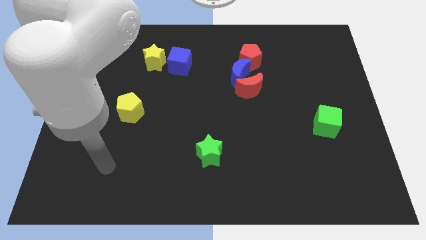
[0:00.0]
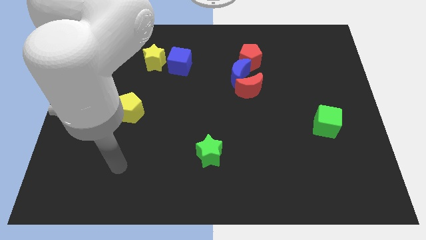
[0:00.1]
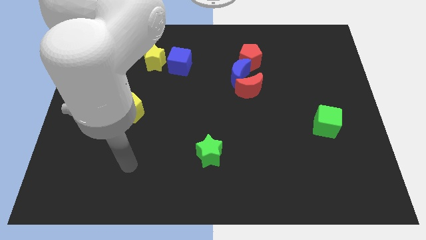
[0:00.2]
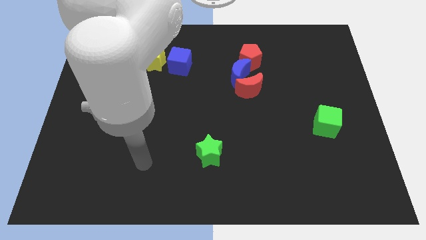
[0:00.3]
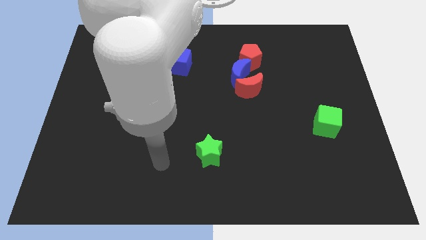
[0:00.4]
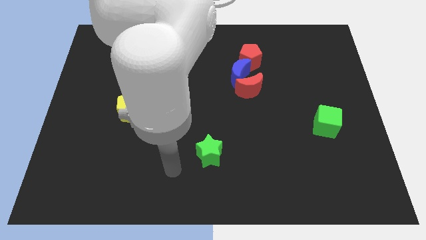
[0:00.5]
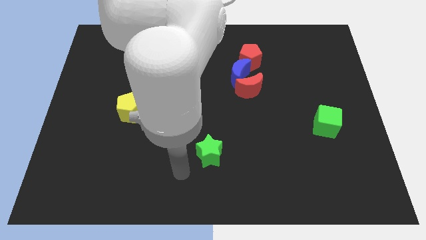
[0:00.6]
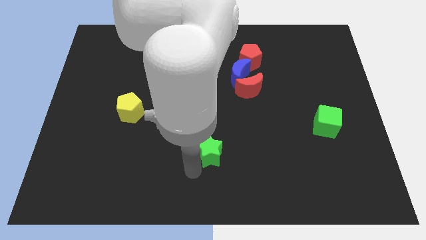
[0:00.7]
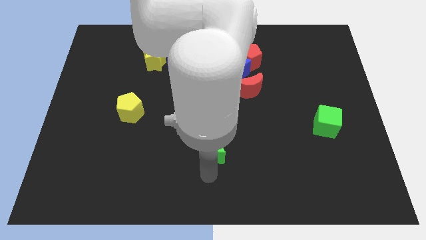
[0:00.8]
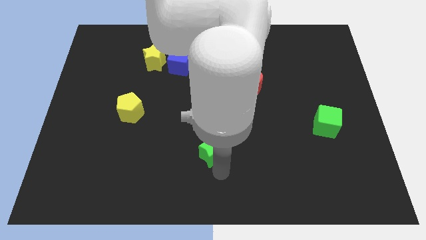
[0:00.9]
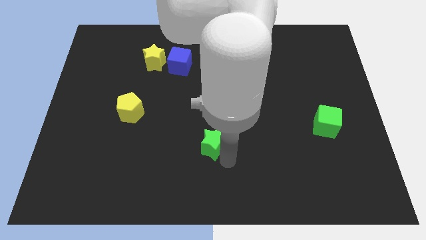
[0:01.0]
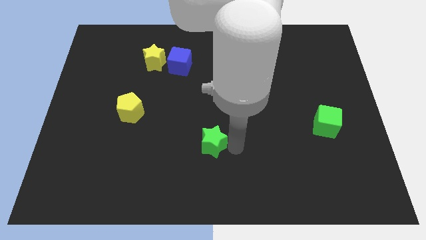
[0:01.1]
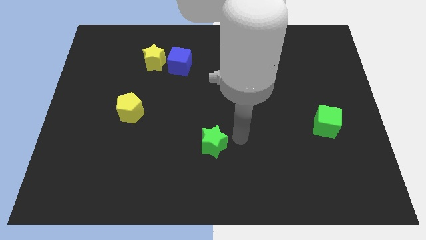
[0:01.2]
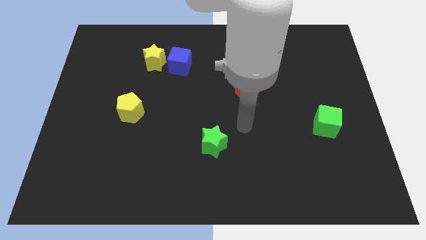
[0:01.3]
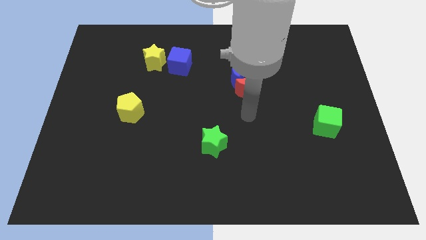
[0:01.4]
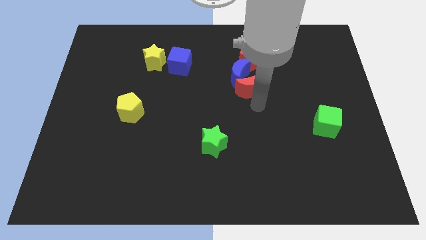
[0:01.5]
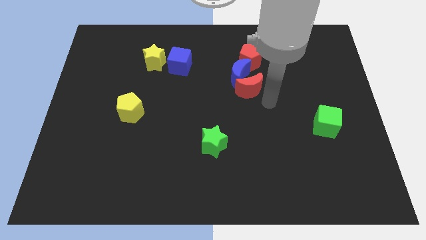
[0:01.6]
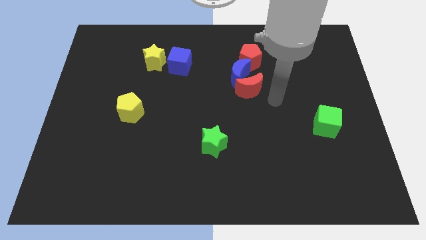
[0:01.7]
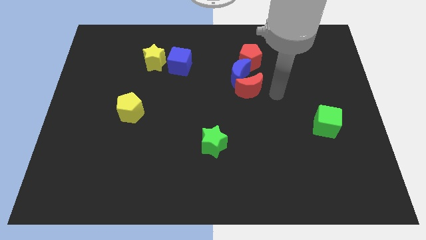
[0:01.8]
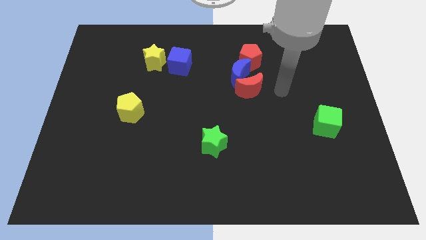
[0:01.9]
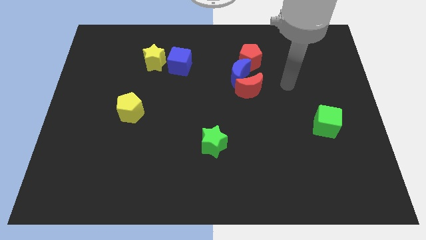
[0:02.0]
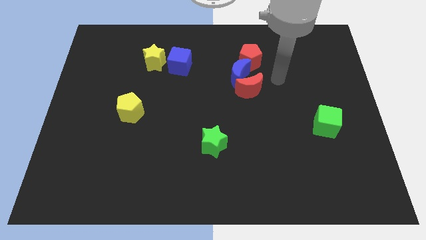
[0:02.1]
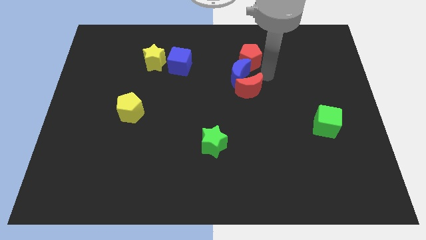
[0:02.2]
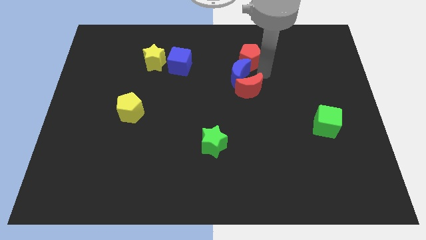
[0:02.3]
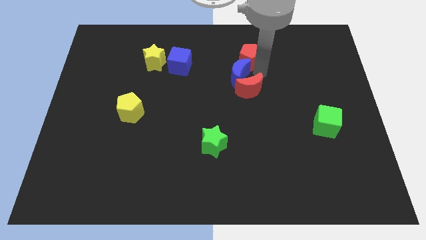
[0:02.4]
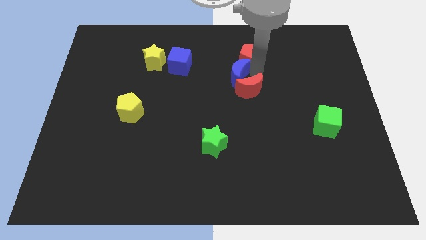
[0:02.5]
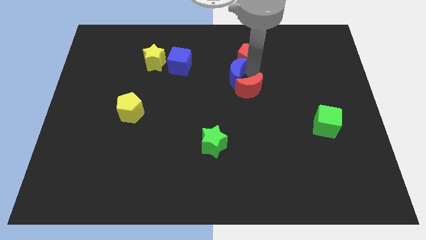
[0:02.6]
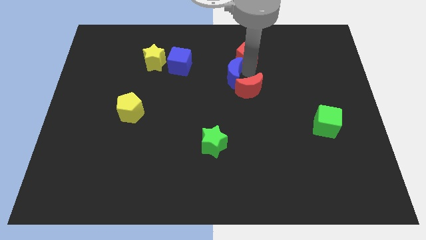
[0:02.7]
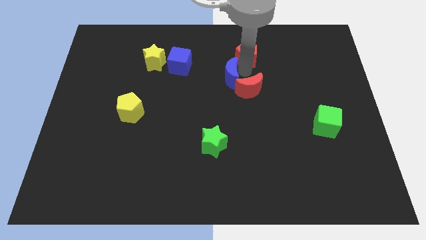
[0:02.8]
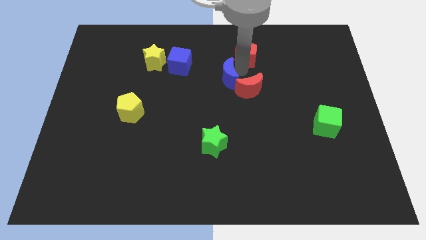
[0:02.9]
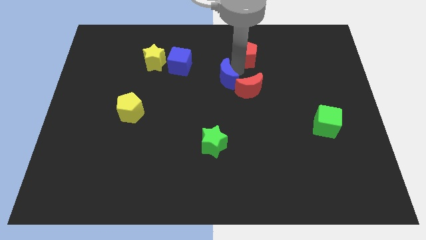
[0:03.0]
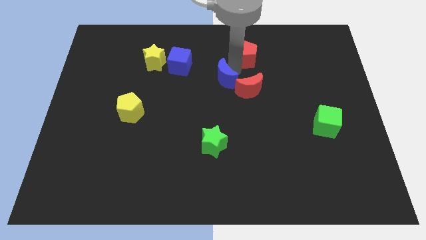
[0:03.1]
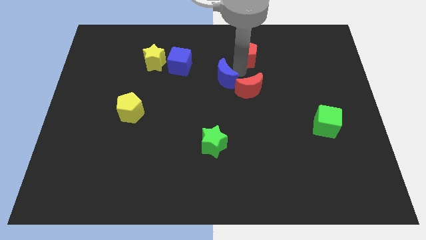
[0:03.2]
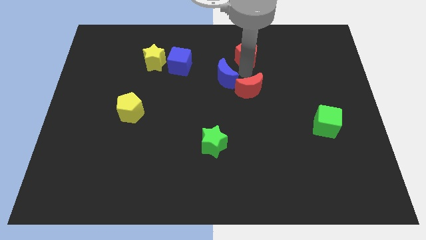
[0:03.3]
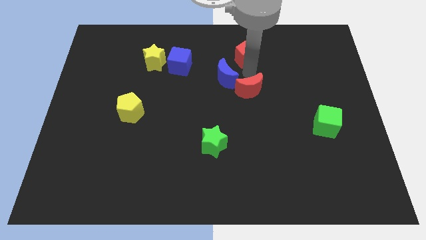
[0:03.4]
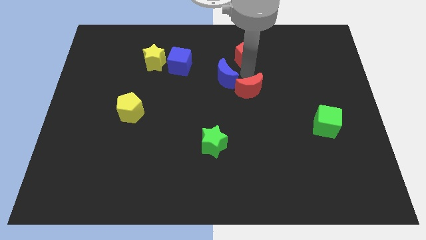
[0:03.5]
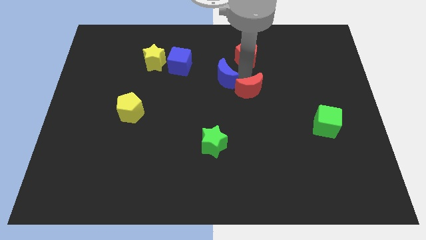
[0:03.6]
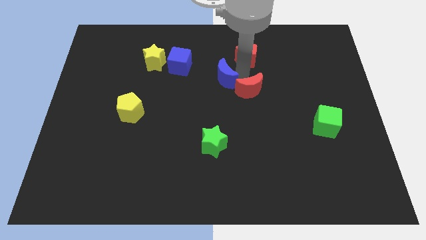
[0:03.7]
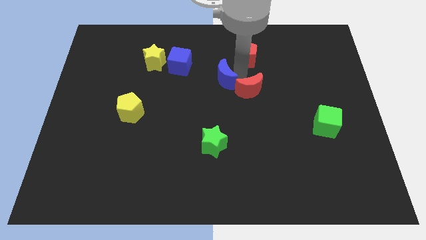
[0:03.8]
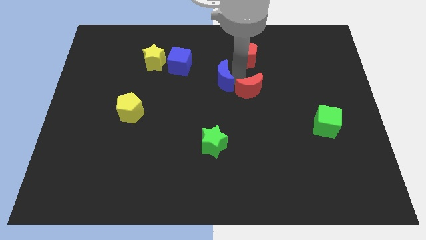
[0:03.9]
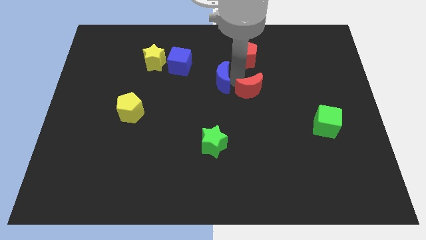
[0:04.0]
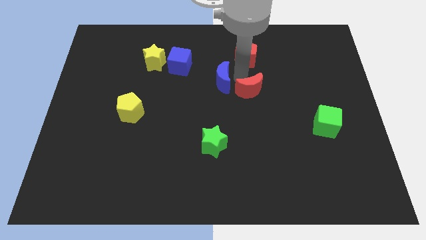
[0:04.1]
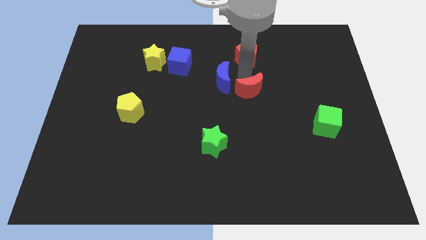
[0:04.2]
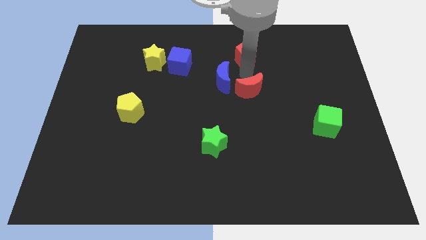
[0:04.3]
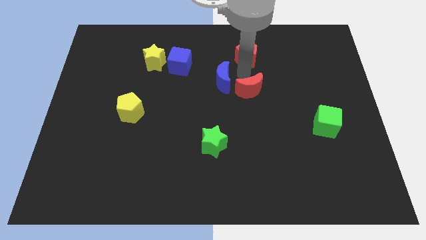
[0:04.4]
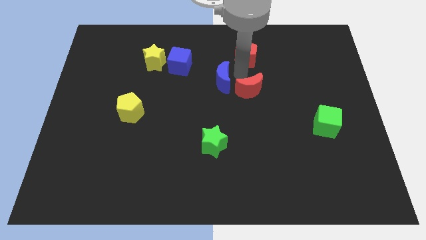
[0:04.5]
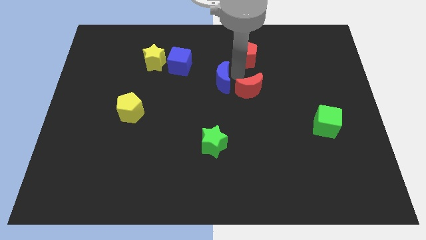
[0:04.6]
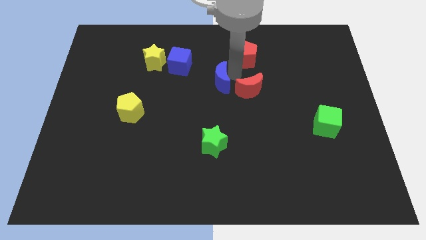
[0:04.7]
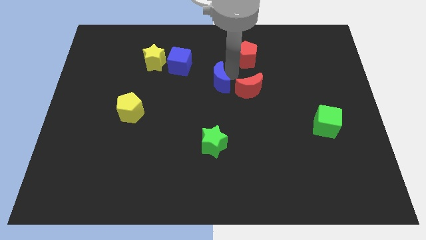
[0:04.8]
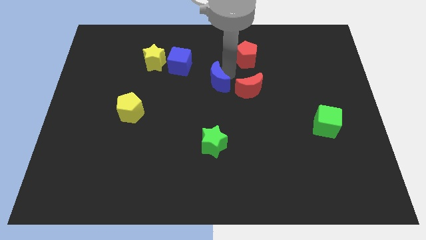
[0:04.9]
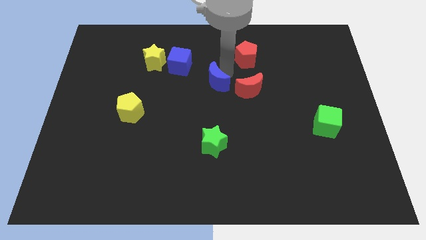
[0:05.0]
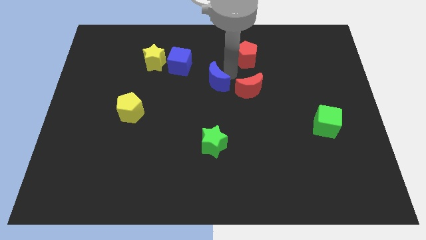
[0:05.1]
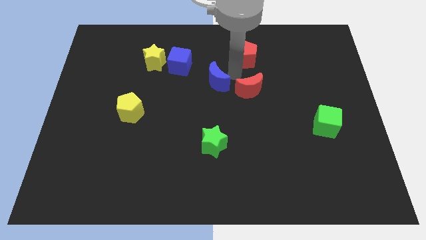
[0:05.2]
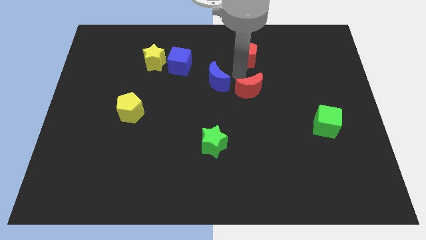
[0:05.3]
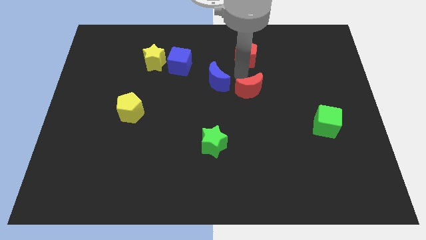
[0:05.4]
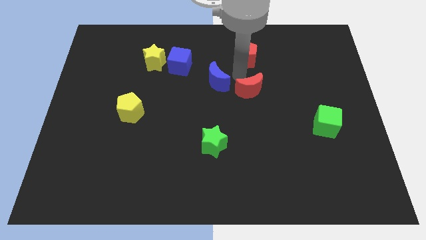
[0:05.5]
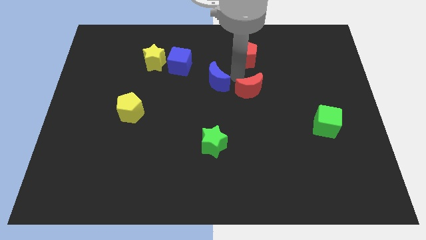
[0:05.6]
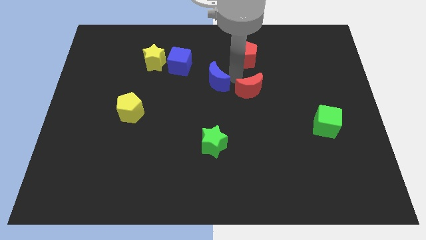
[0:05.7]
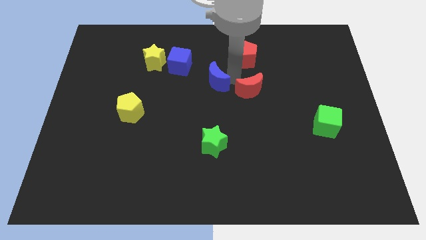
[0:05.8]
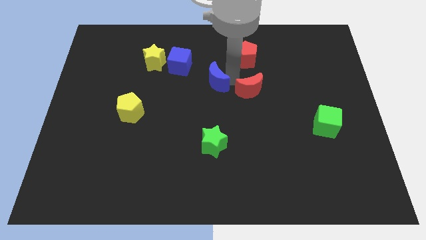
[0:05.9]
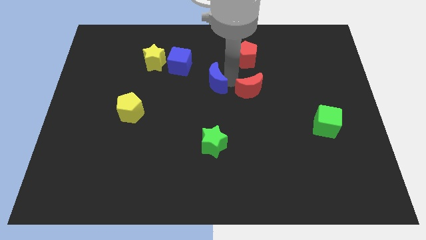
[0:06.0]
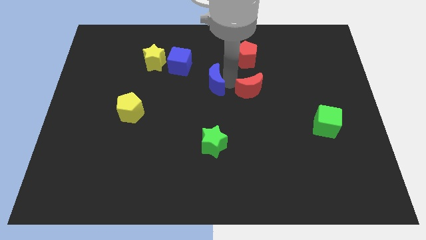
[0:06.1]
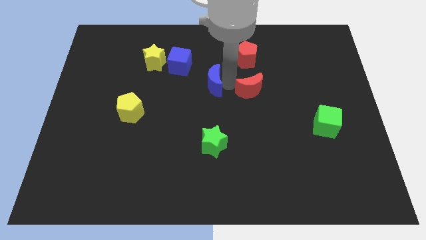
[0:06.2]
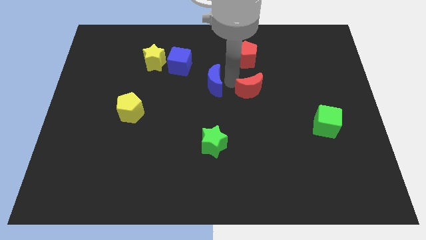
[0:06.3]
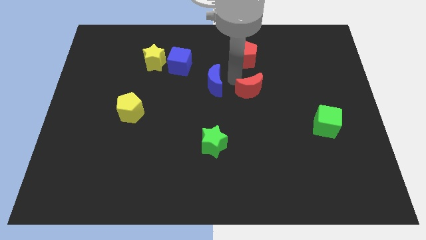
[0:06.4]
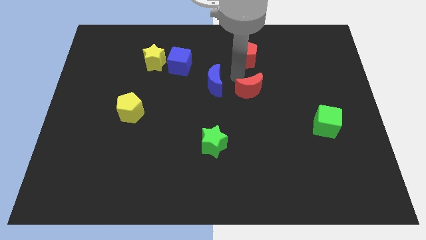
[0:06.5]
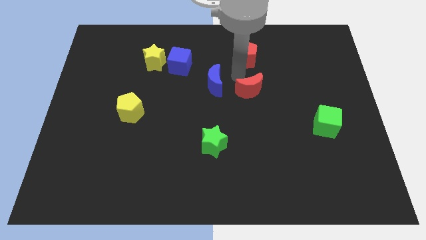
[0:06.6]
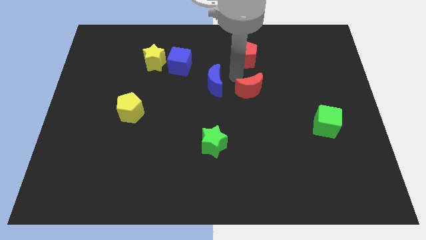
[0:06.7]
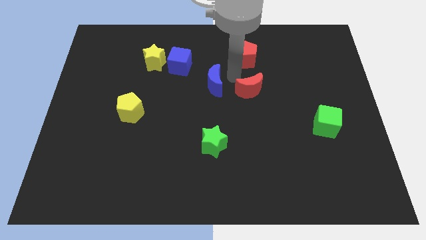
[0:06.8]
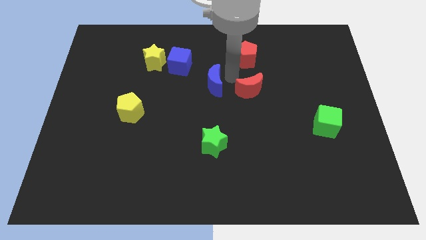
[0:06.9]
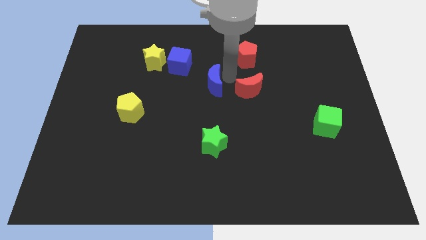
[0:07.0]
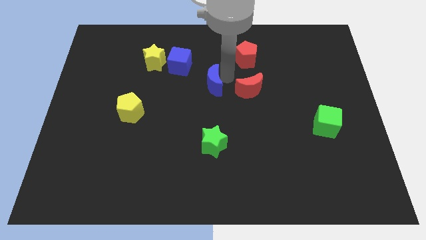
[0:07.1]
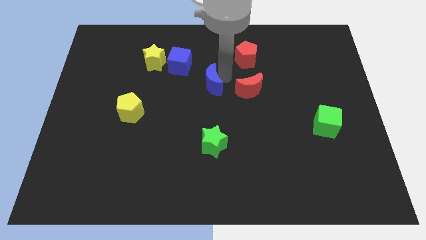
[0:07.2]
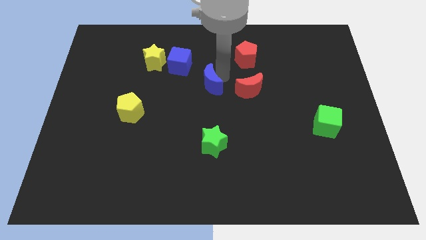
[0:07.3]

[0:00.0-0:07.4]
separate the blue moon from the red moon and red pentagon

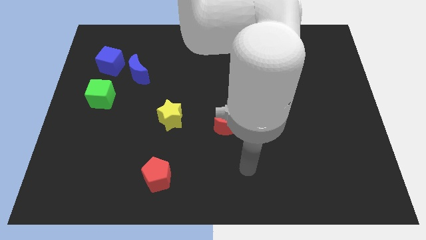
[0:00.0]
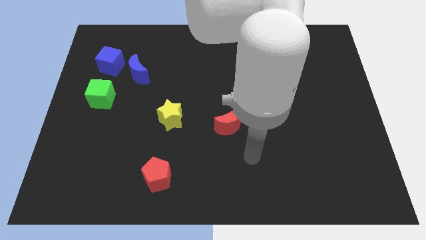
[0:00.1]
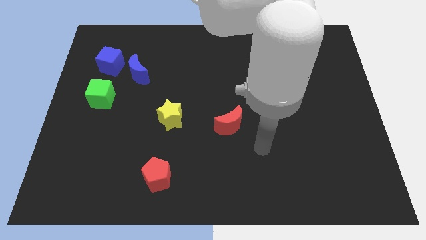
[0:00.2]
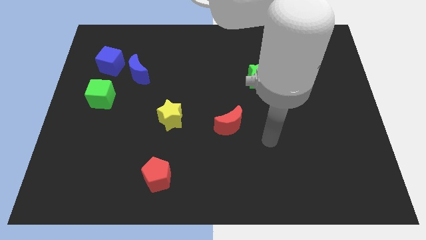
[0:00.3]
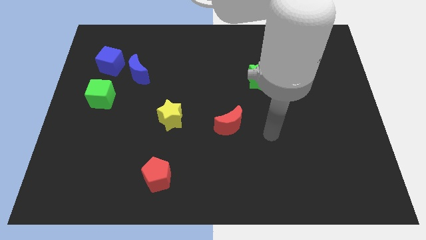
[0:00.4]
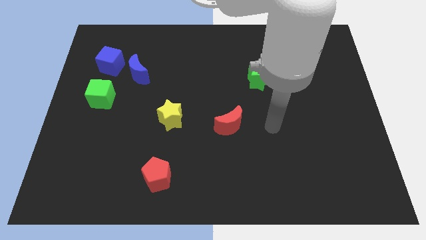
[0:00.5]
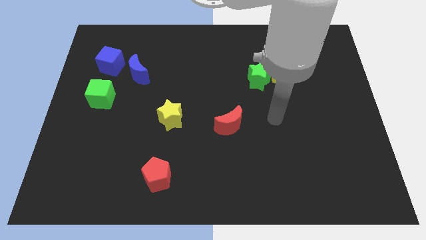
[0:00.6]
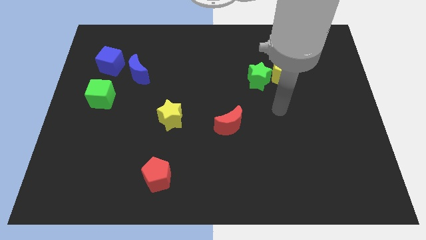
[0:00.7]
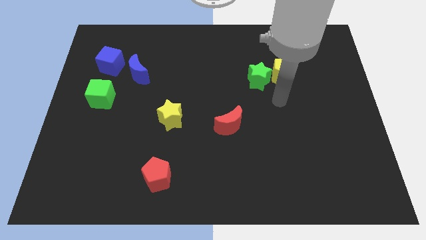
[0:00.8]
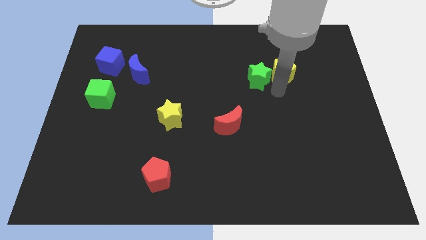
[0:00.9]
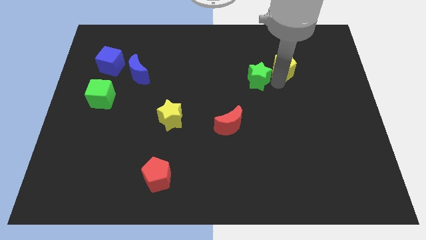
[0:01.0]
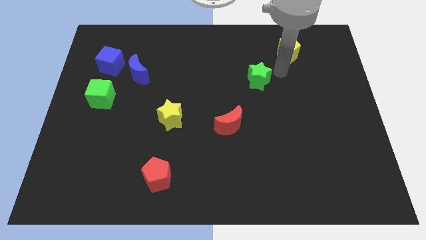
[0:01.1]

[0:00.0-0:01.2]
pull the green star apart from the yellow pentagon

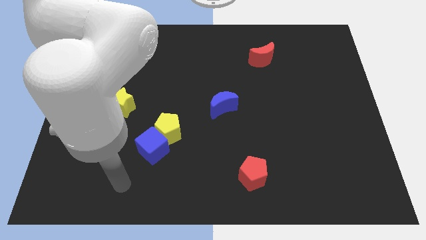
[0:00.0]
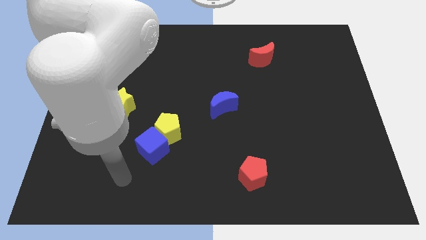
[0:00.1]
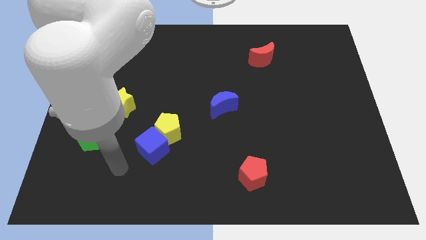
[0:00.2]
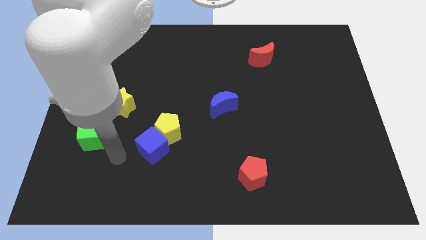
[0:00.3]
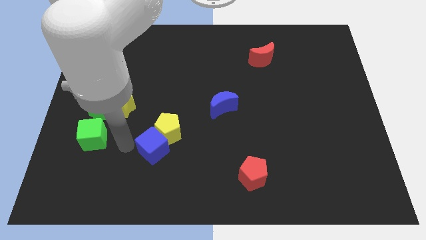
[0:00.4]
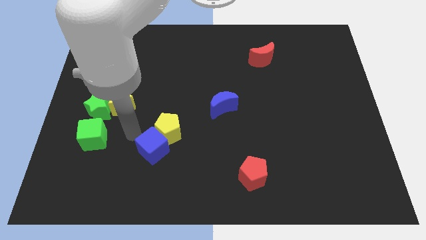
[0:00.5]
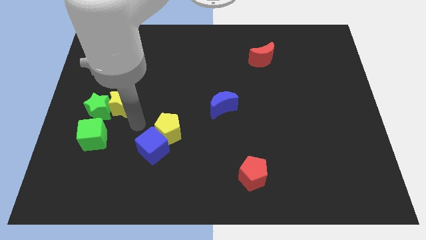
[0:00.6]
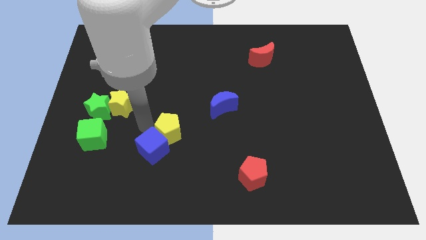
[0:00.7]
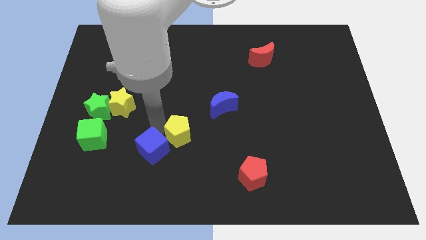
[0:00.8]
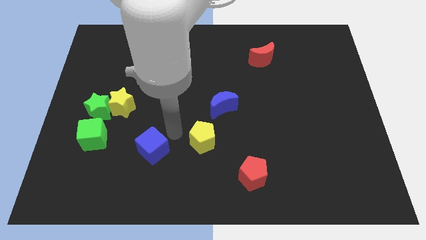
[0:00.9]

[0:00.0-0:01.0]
separate the blue cube from the yellow pentagon
